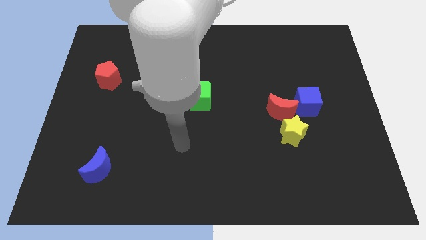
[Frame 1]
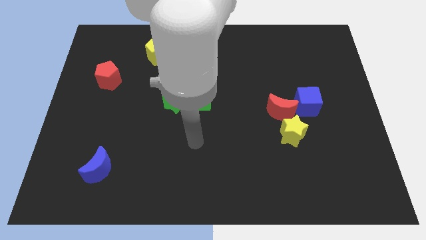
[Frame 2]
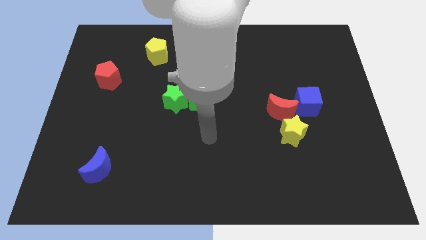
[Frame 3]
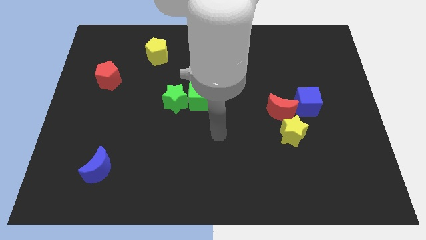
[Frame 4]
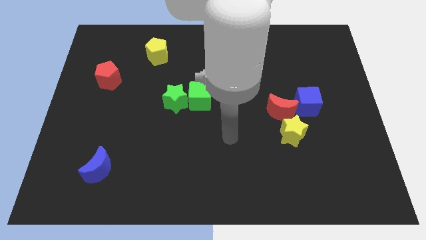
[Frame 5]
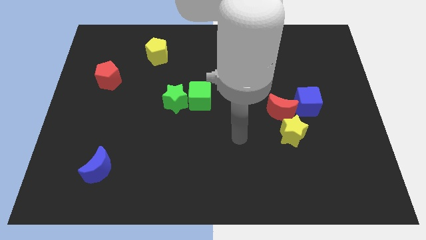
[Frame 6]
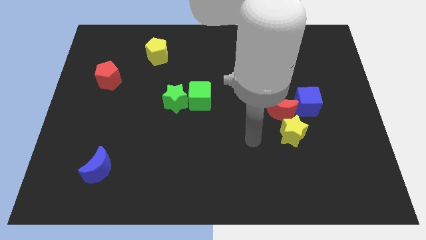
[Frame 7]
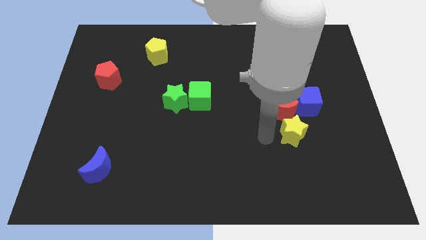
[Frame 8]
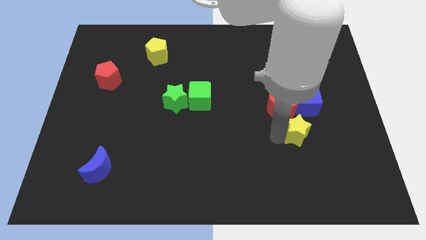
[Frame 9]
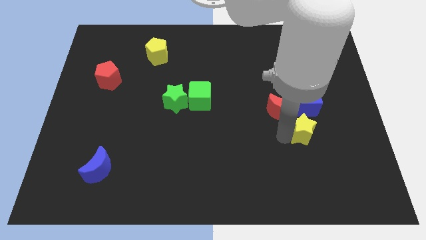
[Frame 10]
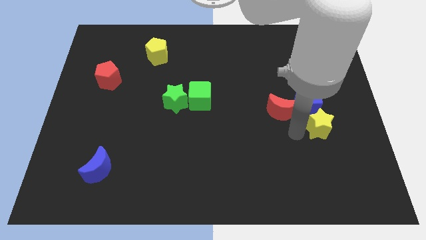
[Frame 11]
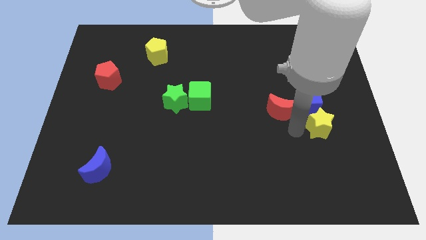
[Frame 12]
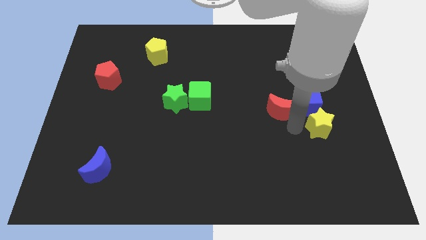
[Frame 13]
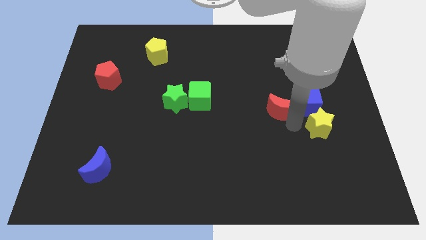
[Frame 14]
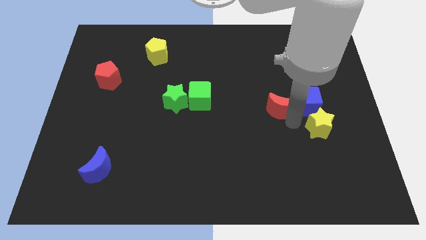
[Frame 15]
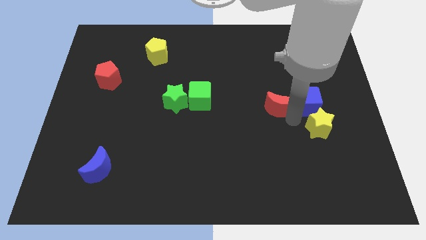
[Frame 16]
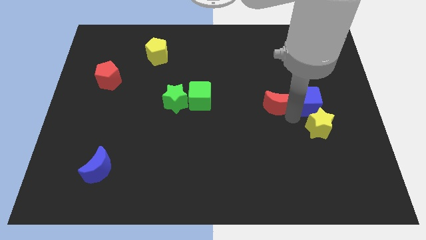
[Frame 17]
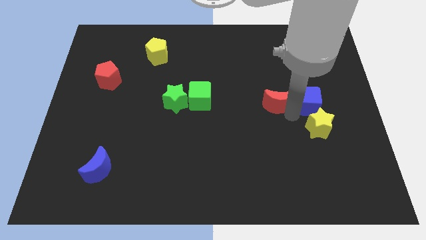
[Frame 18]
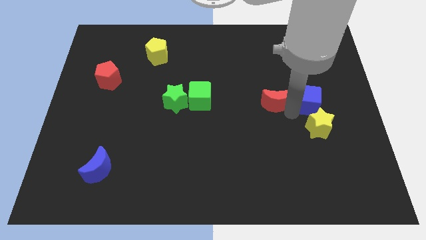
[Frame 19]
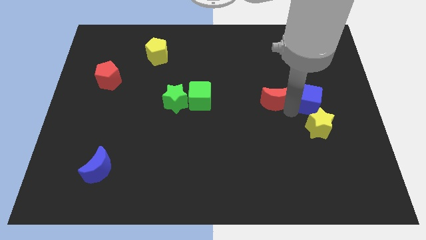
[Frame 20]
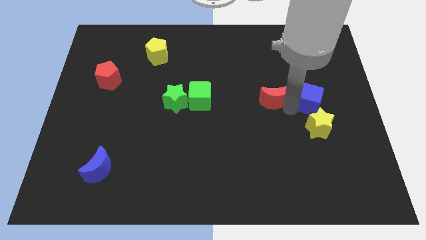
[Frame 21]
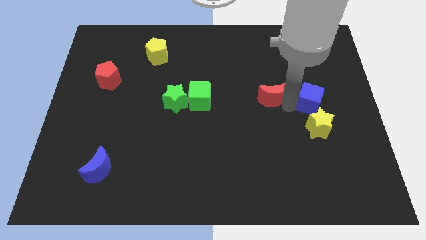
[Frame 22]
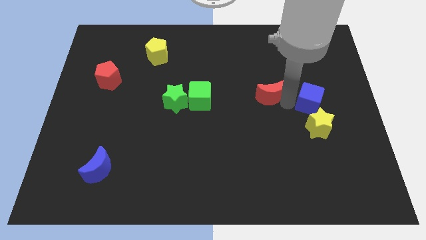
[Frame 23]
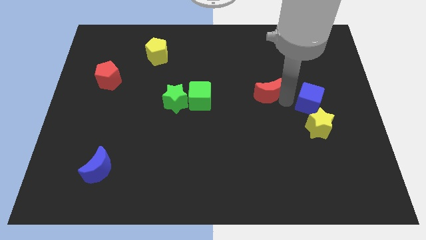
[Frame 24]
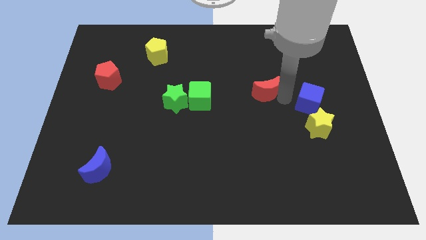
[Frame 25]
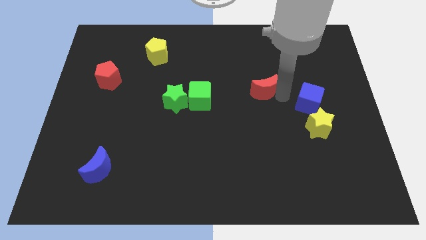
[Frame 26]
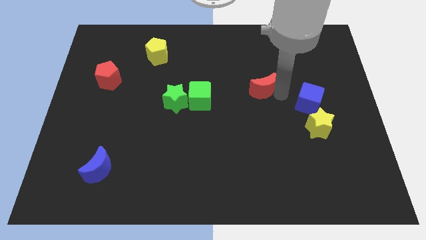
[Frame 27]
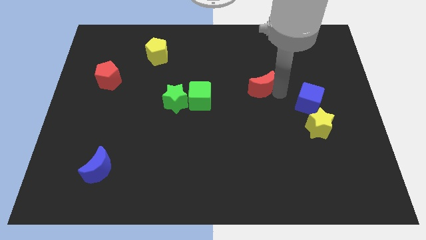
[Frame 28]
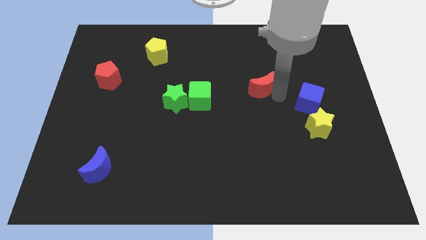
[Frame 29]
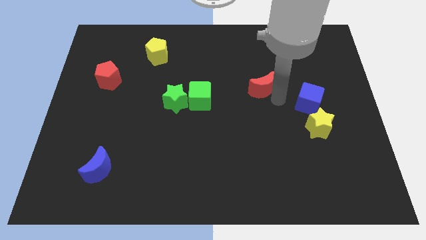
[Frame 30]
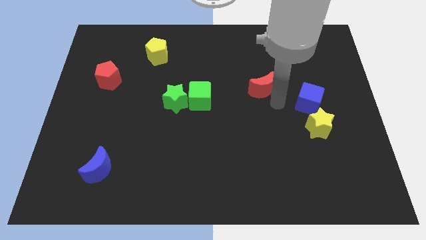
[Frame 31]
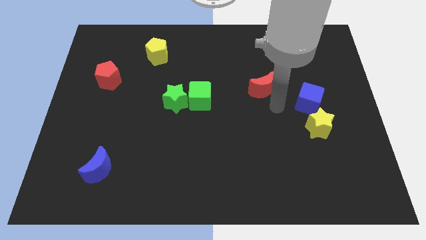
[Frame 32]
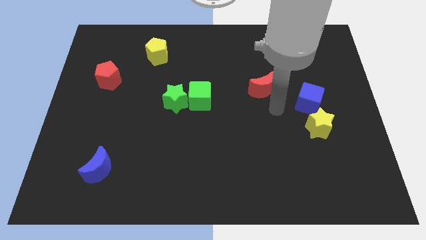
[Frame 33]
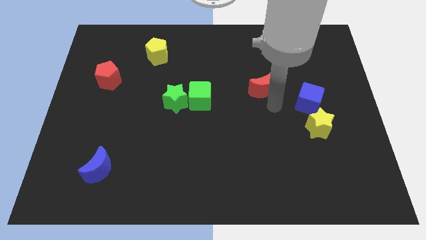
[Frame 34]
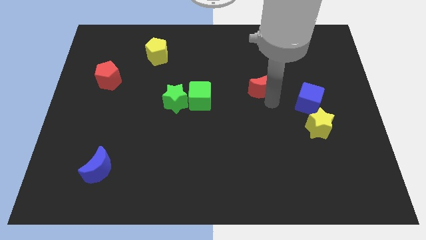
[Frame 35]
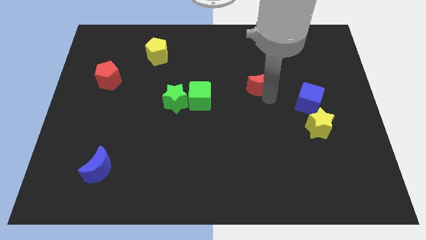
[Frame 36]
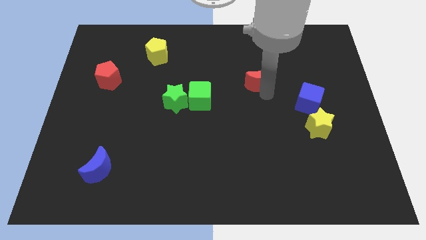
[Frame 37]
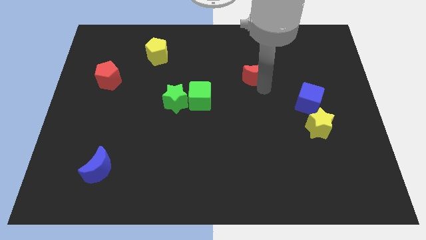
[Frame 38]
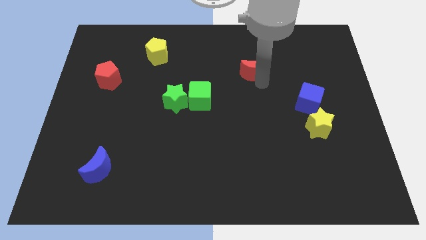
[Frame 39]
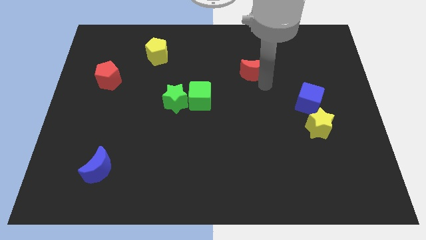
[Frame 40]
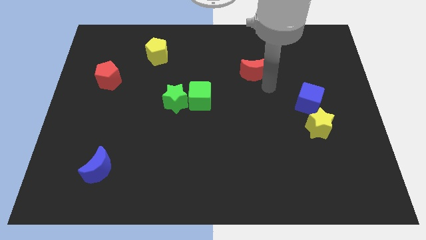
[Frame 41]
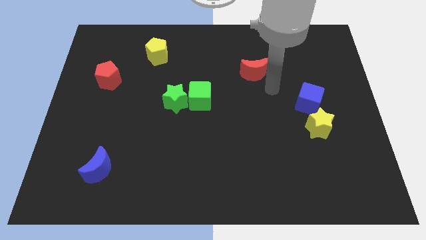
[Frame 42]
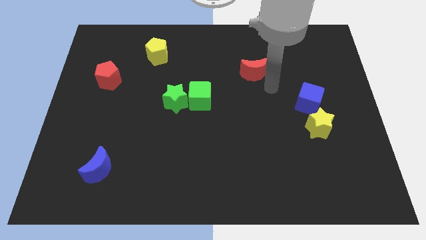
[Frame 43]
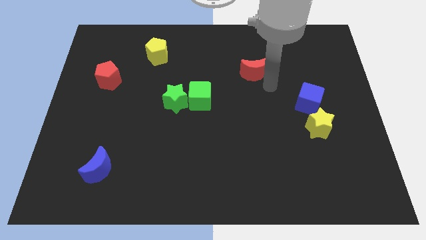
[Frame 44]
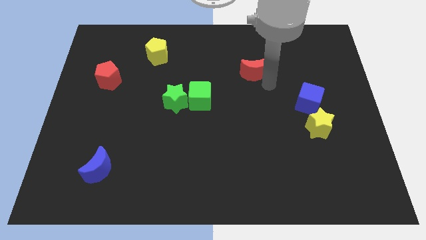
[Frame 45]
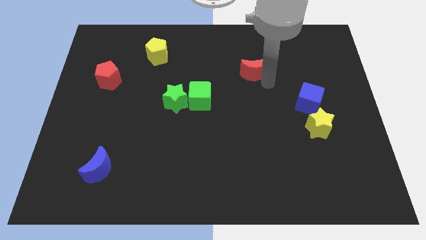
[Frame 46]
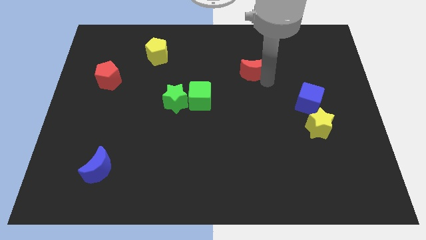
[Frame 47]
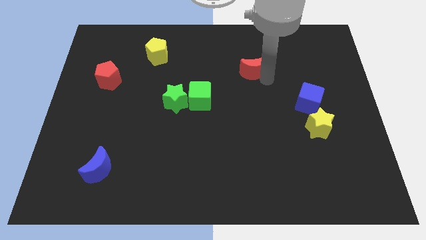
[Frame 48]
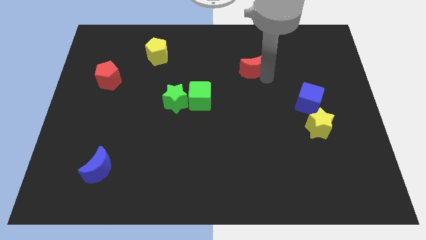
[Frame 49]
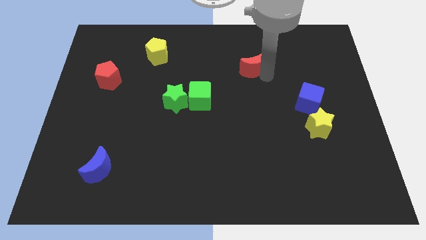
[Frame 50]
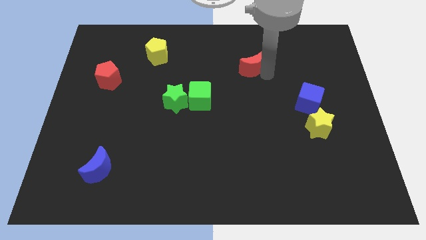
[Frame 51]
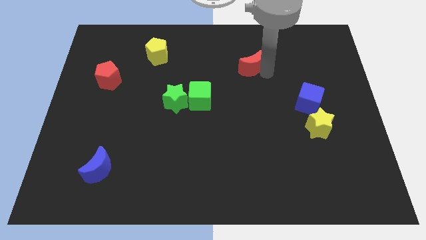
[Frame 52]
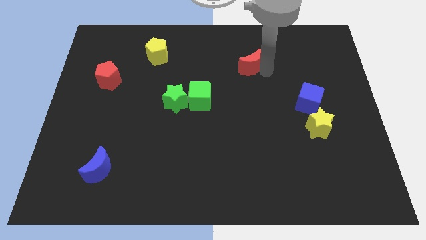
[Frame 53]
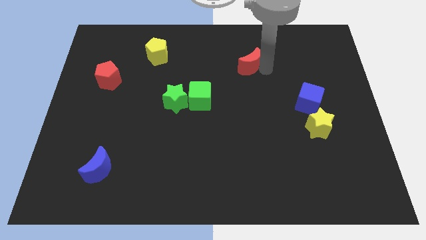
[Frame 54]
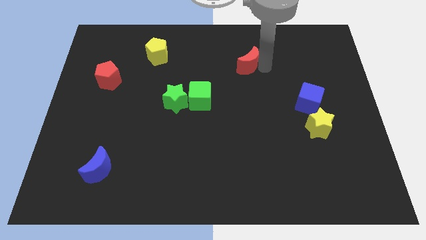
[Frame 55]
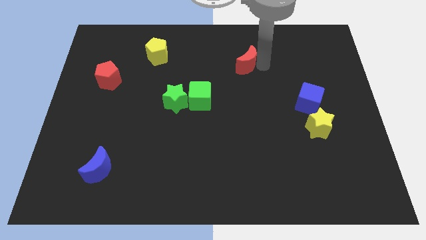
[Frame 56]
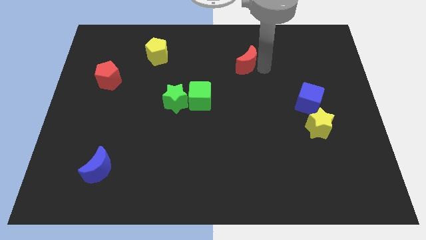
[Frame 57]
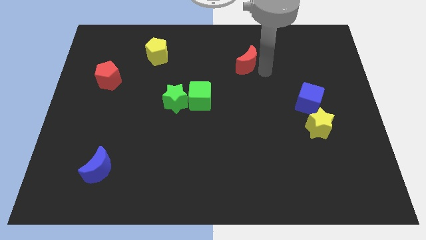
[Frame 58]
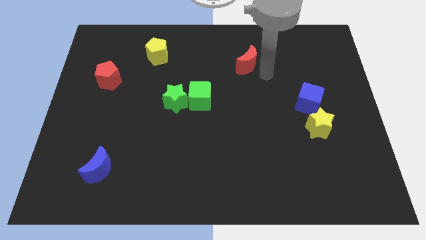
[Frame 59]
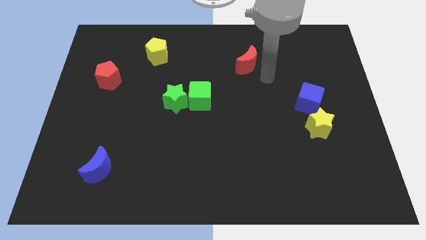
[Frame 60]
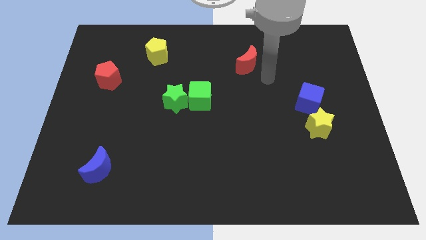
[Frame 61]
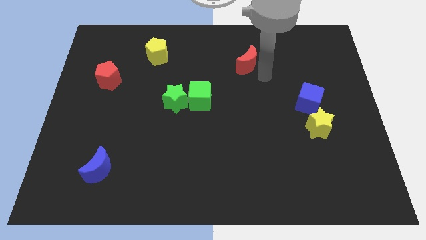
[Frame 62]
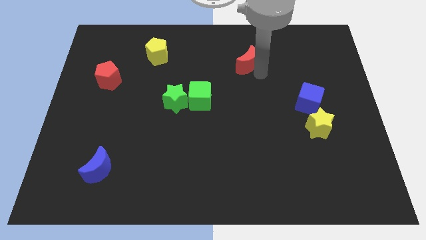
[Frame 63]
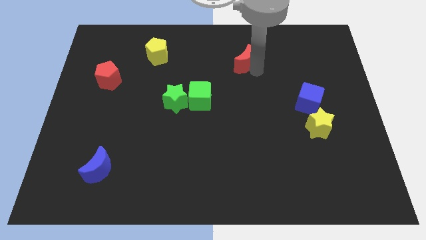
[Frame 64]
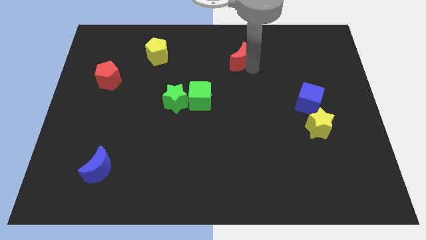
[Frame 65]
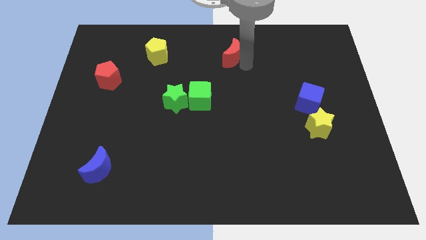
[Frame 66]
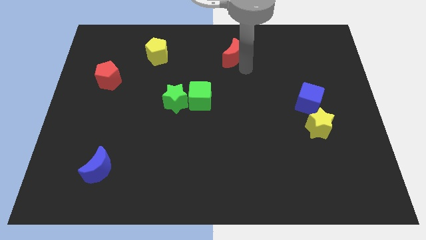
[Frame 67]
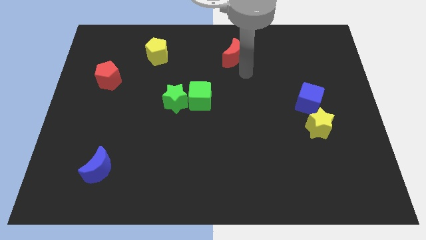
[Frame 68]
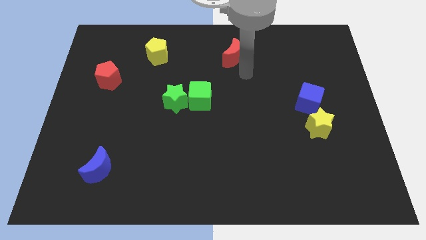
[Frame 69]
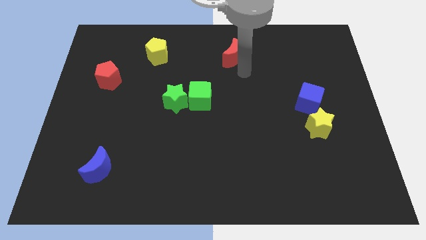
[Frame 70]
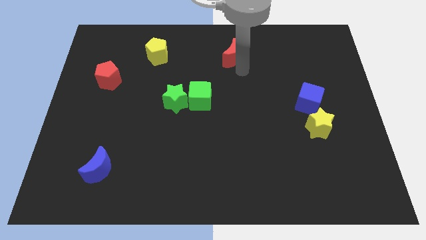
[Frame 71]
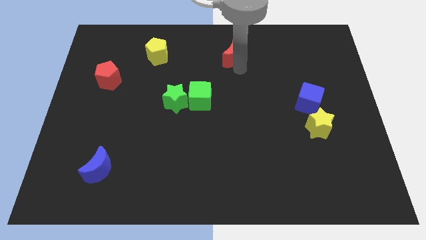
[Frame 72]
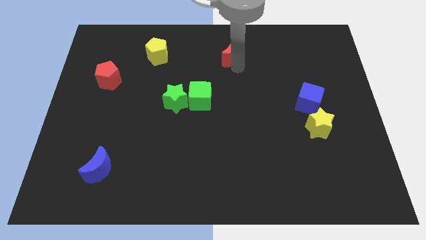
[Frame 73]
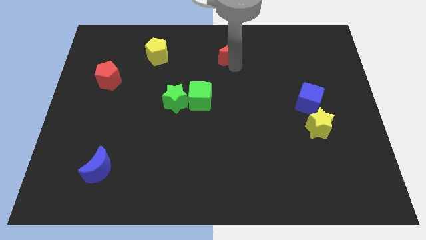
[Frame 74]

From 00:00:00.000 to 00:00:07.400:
put the red moon to the towards your base
